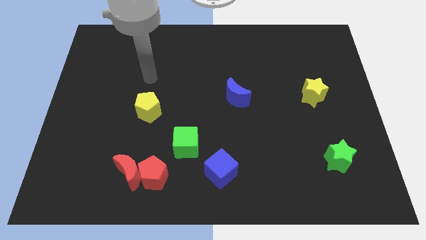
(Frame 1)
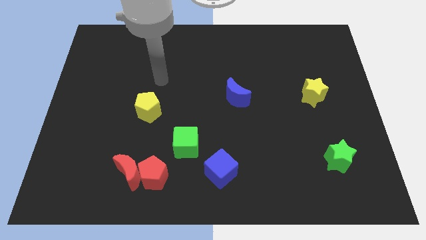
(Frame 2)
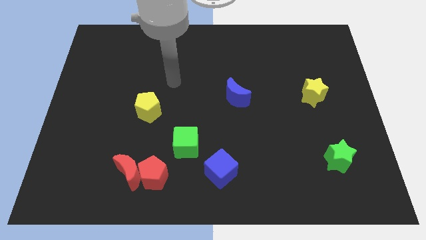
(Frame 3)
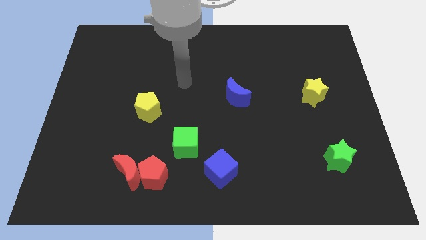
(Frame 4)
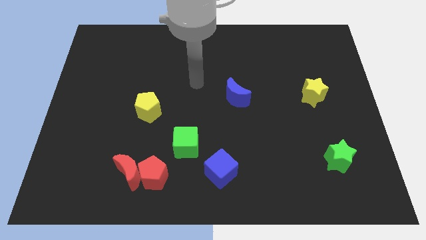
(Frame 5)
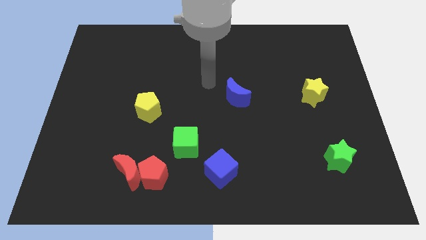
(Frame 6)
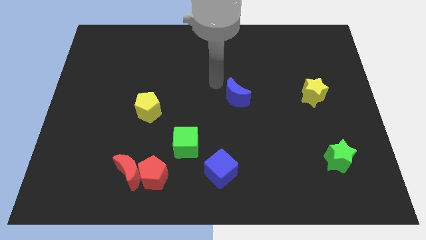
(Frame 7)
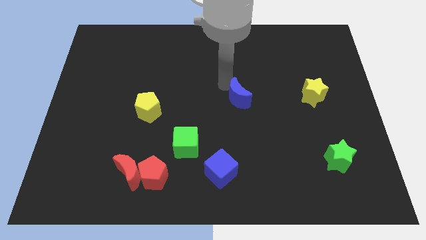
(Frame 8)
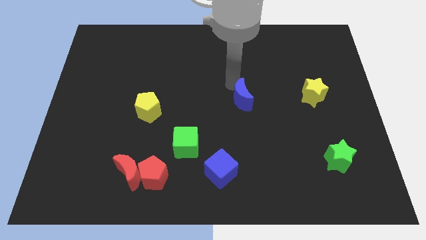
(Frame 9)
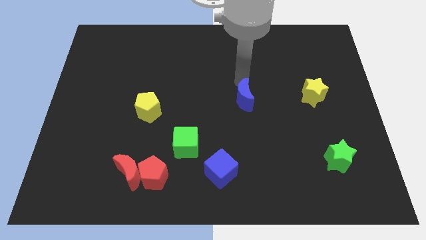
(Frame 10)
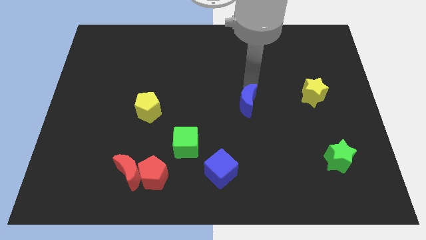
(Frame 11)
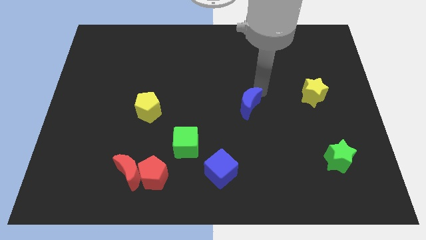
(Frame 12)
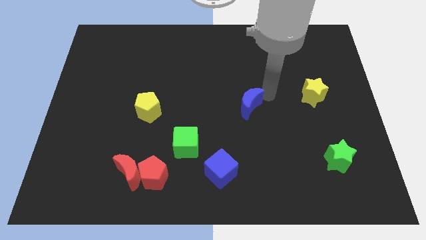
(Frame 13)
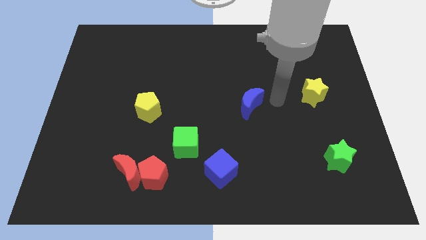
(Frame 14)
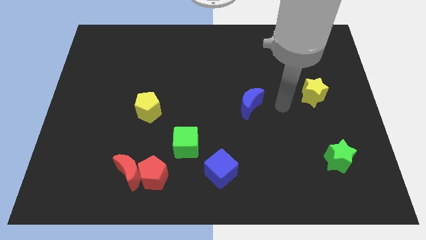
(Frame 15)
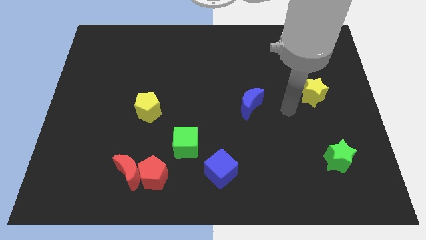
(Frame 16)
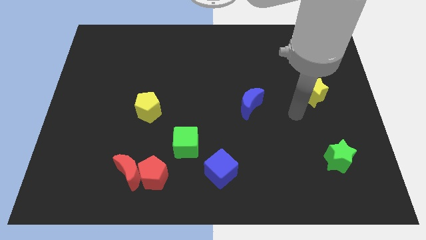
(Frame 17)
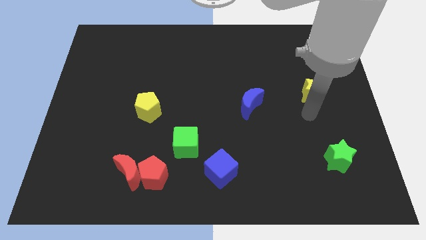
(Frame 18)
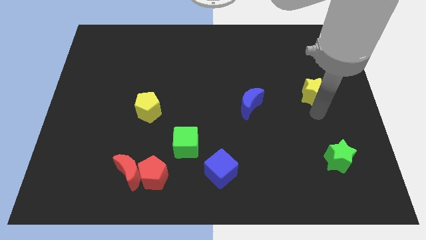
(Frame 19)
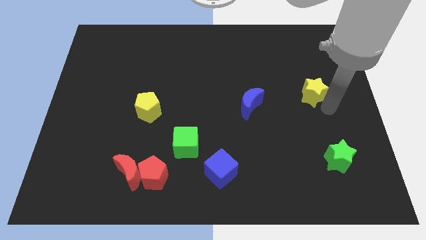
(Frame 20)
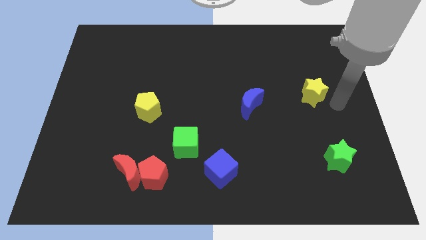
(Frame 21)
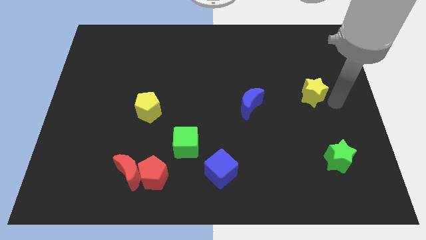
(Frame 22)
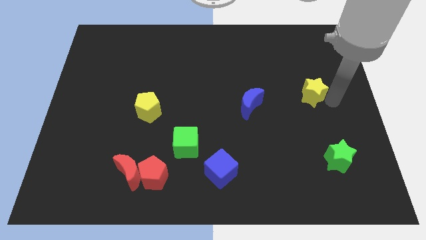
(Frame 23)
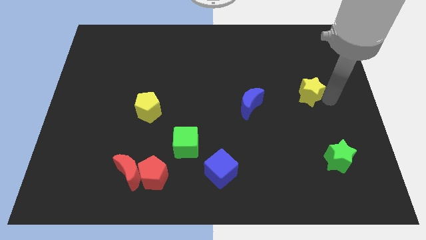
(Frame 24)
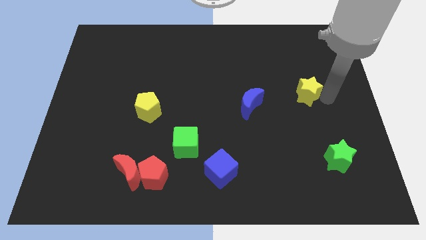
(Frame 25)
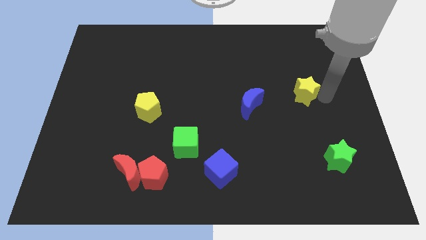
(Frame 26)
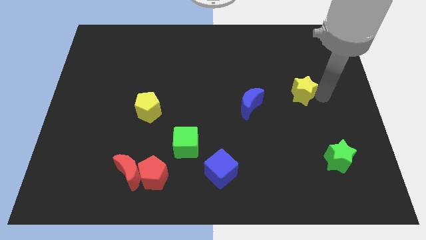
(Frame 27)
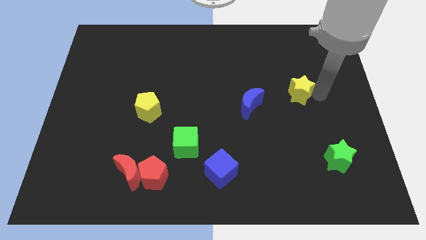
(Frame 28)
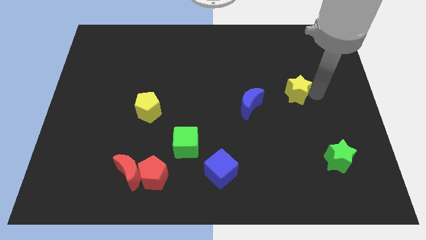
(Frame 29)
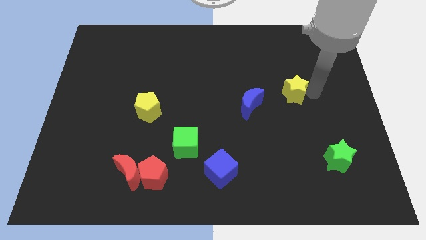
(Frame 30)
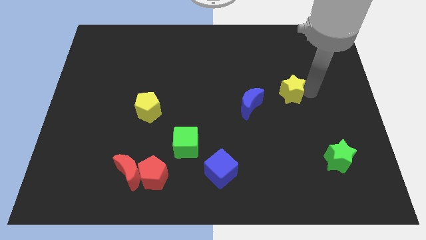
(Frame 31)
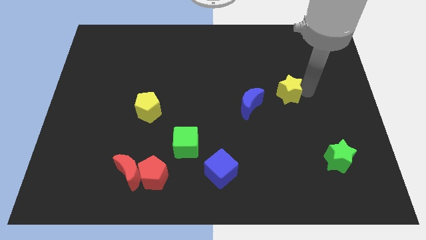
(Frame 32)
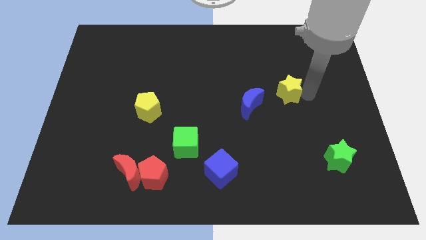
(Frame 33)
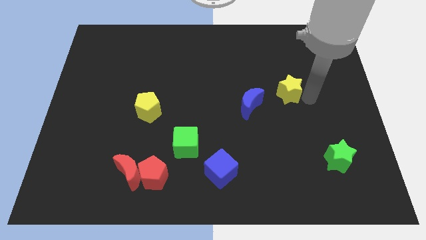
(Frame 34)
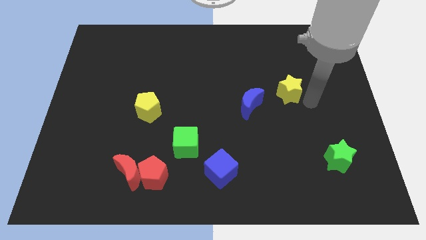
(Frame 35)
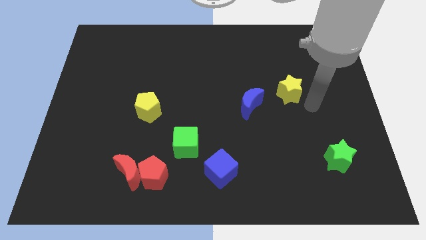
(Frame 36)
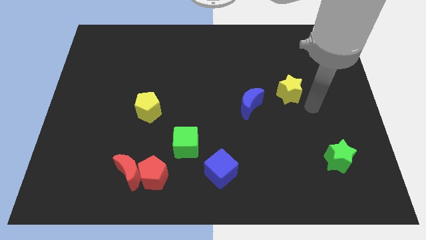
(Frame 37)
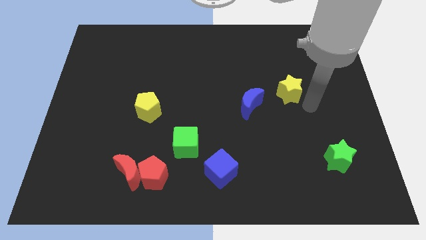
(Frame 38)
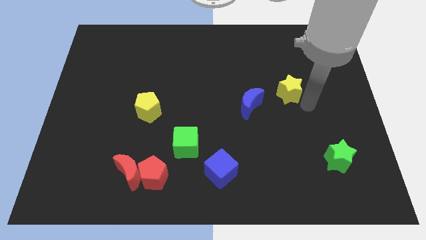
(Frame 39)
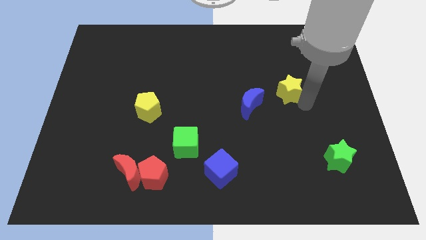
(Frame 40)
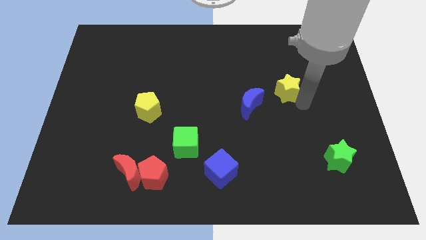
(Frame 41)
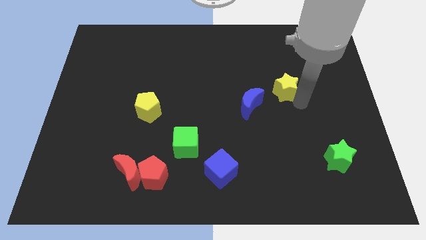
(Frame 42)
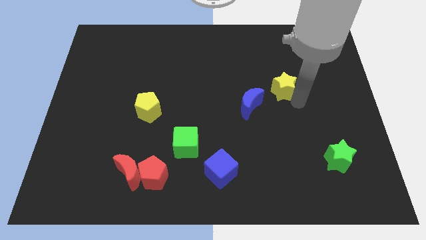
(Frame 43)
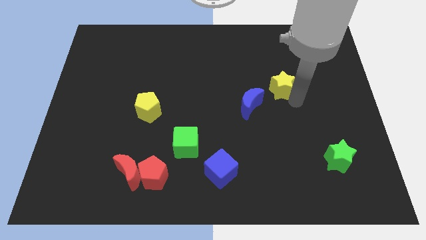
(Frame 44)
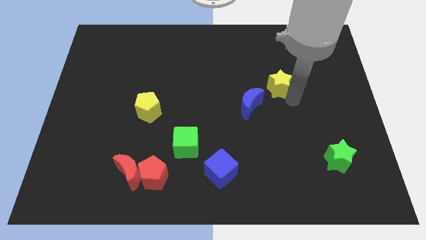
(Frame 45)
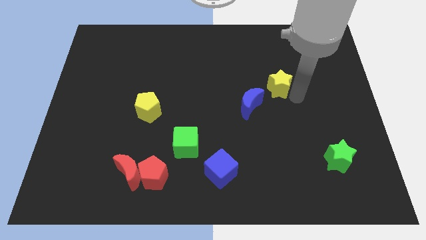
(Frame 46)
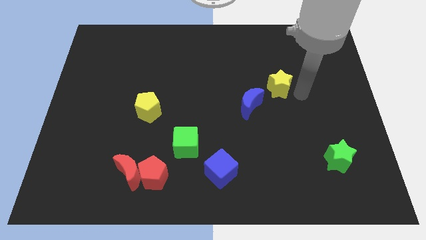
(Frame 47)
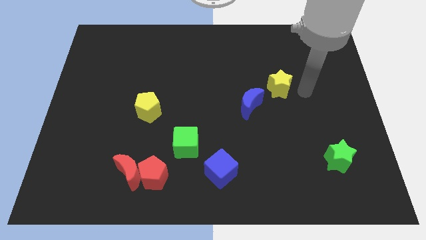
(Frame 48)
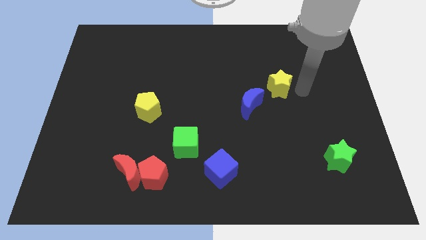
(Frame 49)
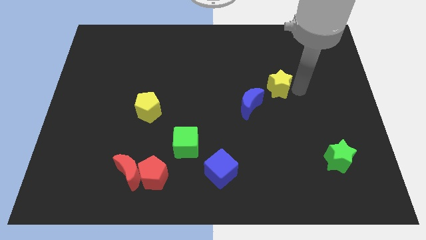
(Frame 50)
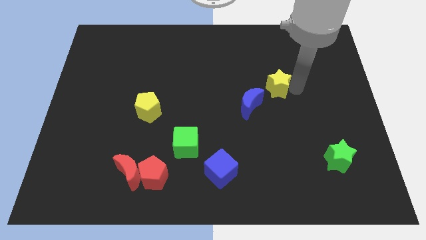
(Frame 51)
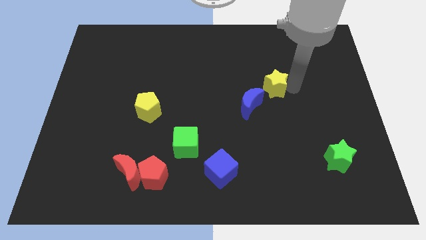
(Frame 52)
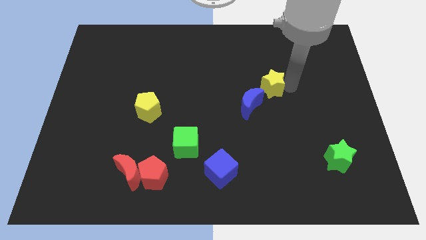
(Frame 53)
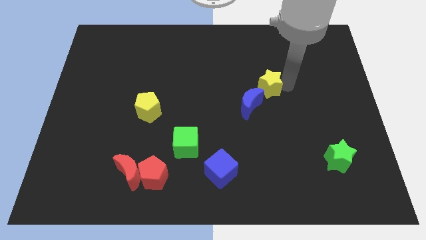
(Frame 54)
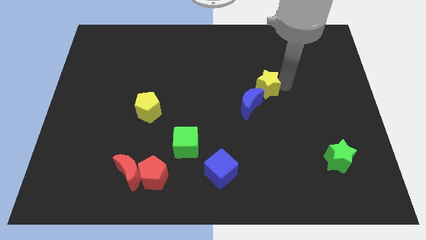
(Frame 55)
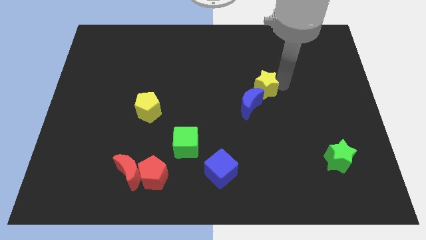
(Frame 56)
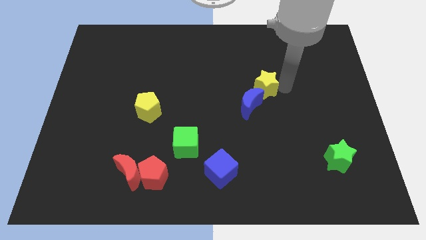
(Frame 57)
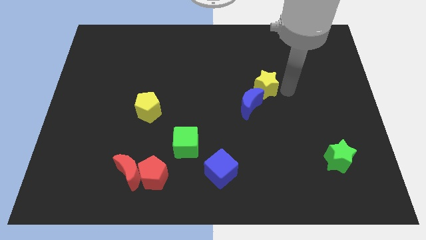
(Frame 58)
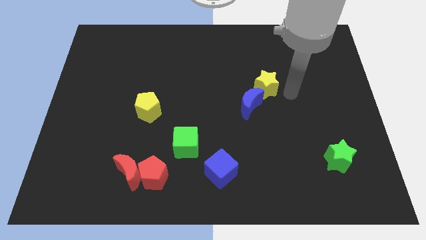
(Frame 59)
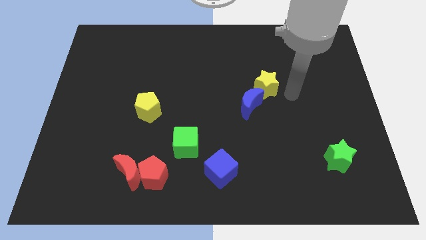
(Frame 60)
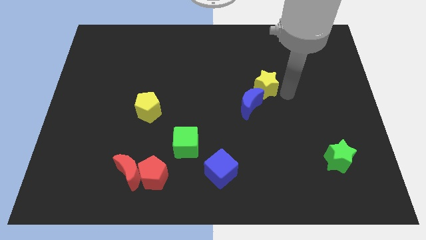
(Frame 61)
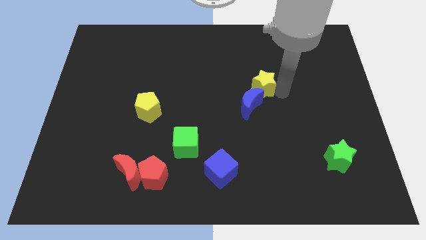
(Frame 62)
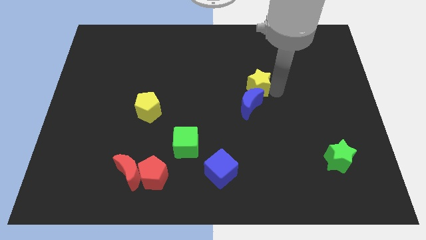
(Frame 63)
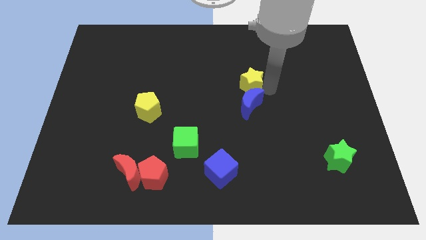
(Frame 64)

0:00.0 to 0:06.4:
push the yellow star to the top left side of the blue moon

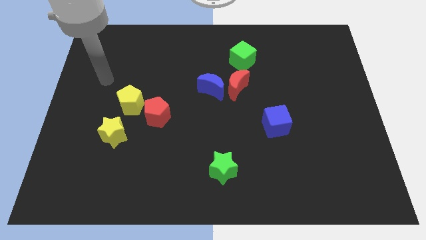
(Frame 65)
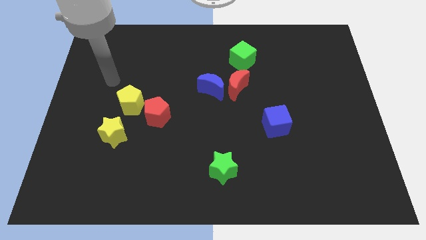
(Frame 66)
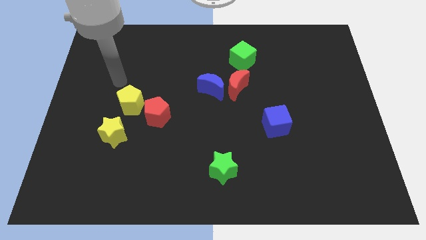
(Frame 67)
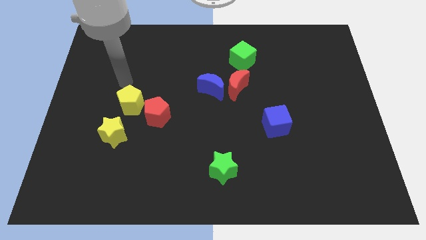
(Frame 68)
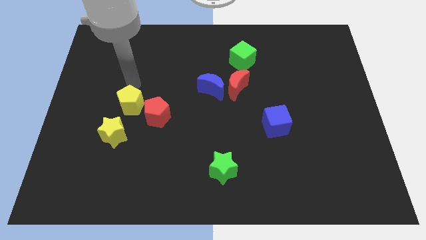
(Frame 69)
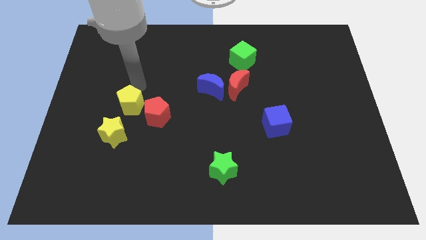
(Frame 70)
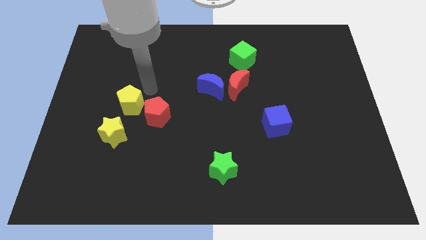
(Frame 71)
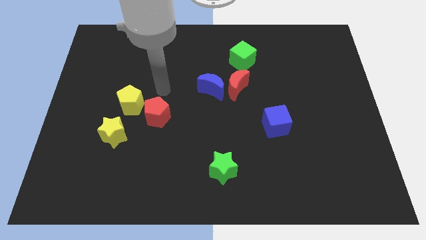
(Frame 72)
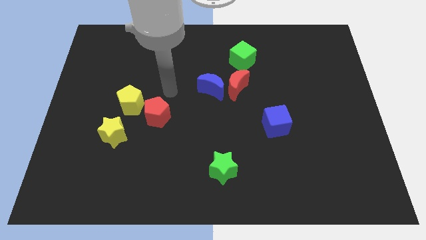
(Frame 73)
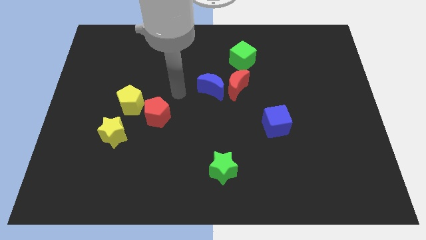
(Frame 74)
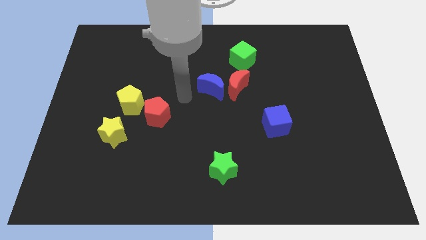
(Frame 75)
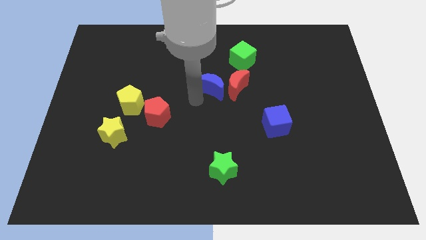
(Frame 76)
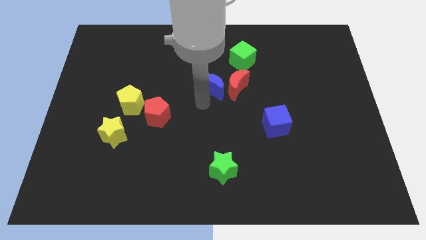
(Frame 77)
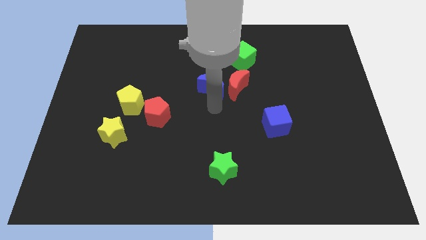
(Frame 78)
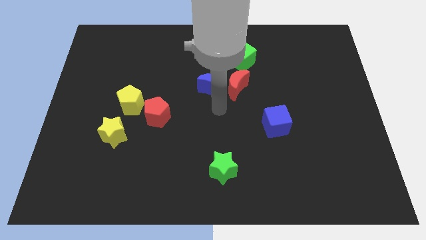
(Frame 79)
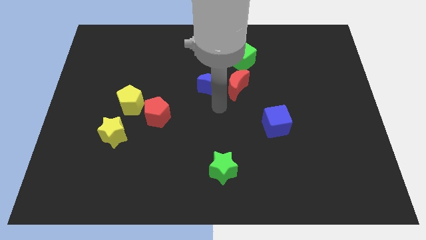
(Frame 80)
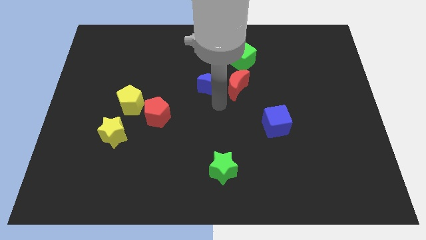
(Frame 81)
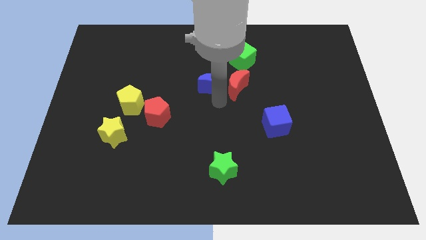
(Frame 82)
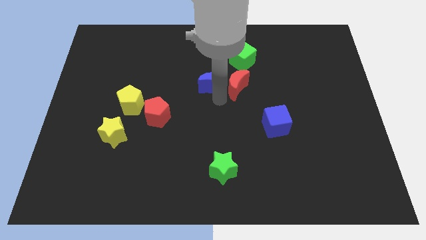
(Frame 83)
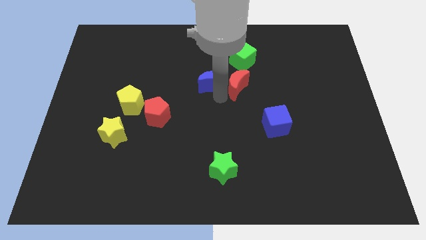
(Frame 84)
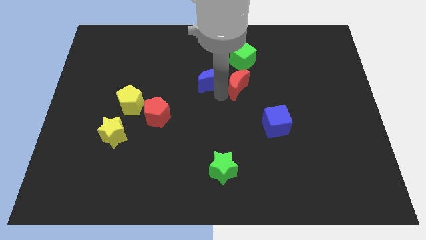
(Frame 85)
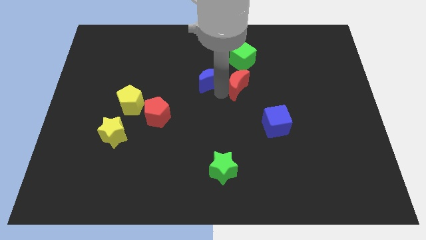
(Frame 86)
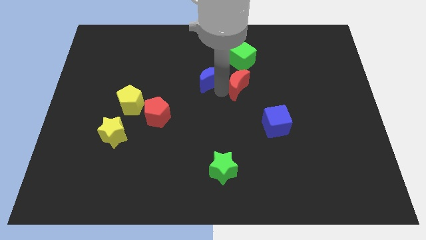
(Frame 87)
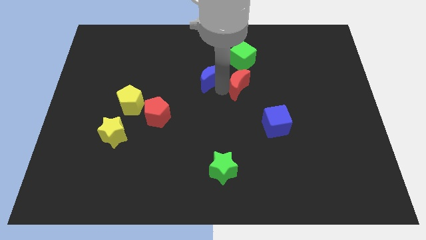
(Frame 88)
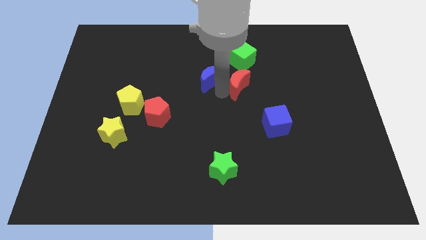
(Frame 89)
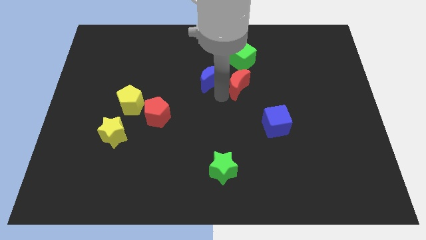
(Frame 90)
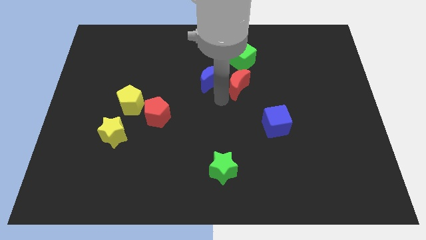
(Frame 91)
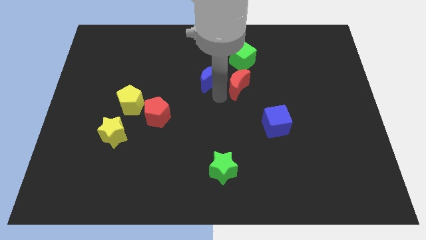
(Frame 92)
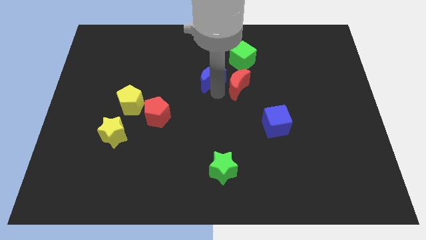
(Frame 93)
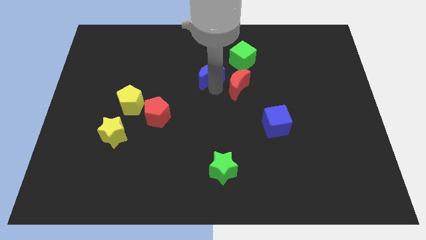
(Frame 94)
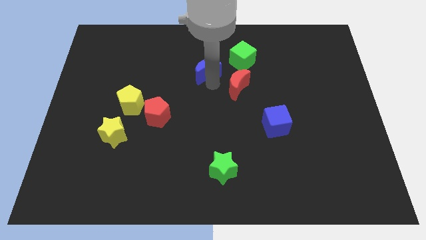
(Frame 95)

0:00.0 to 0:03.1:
move the blue moon just left of the green cube
